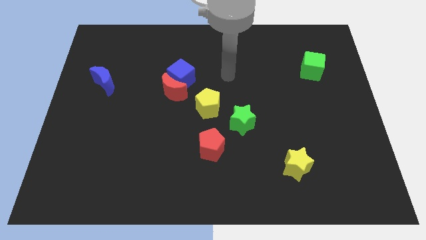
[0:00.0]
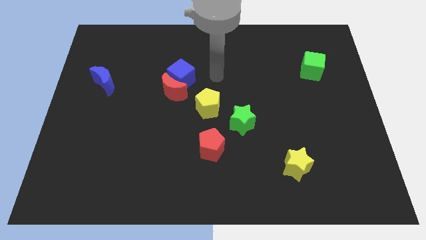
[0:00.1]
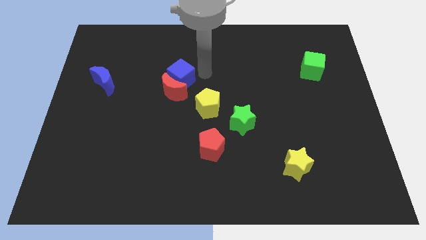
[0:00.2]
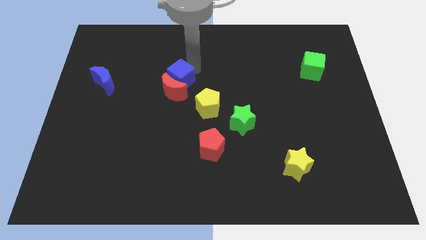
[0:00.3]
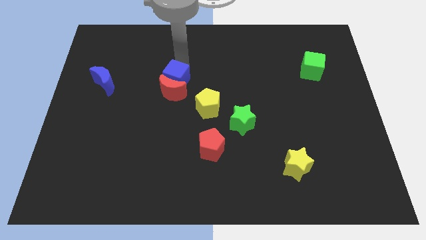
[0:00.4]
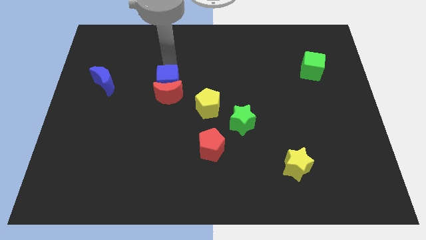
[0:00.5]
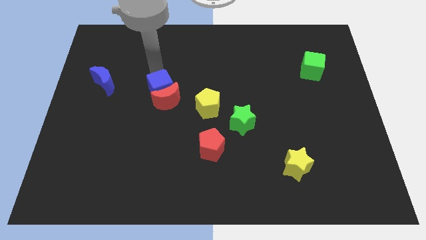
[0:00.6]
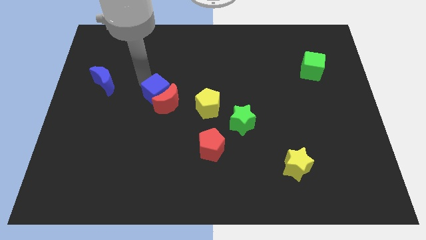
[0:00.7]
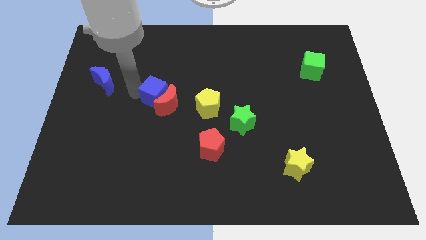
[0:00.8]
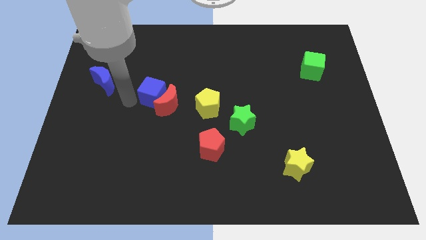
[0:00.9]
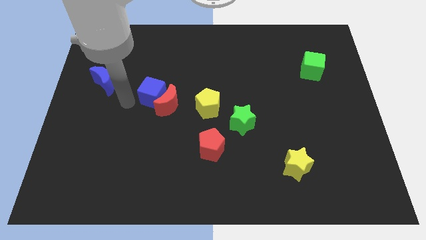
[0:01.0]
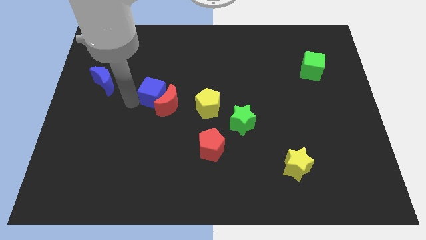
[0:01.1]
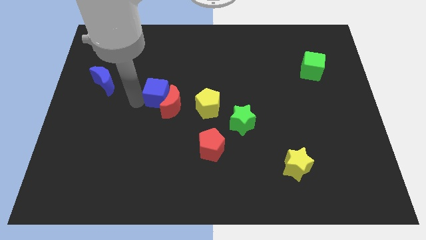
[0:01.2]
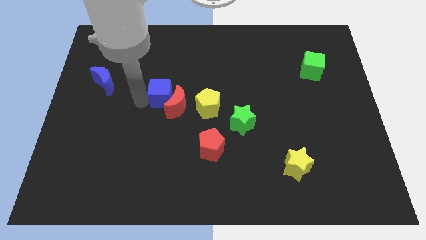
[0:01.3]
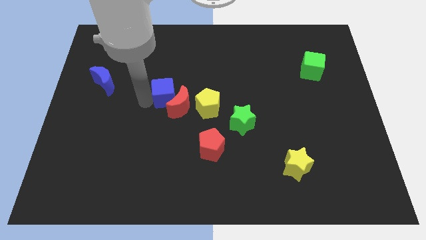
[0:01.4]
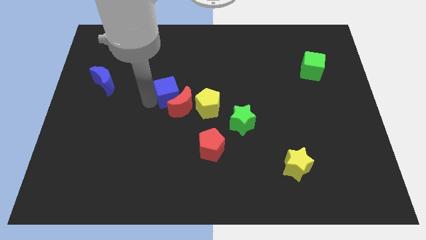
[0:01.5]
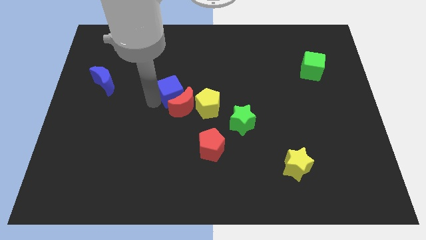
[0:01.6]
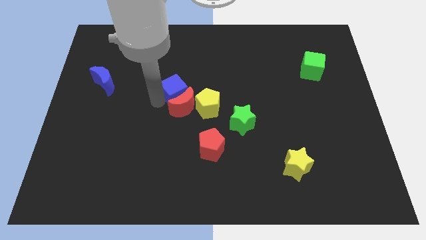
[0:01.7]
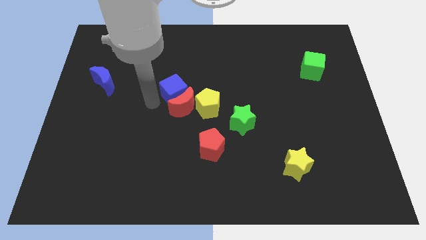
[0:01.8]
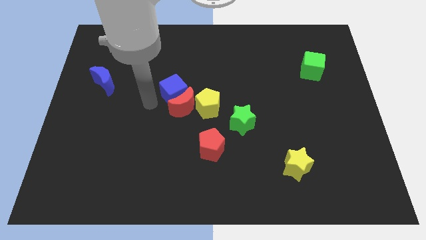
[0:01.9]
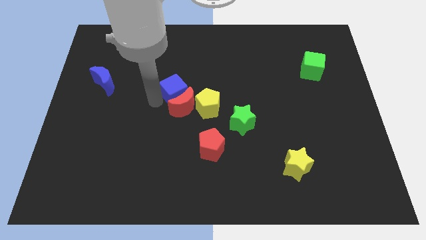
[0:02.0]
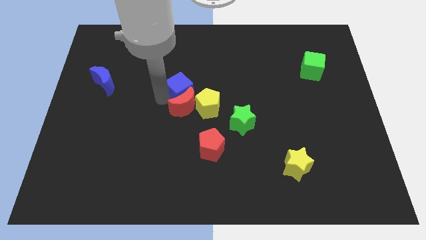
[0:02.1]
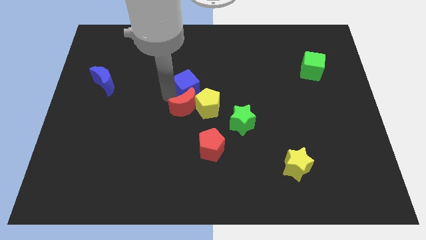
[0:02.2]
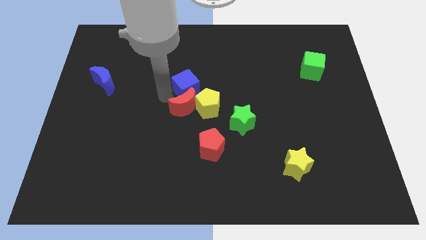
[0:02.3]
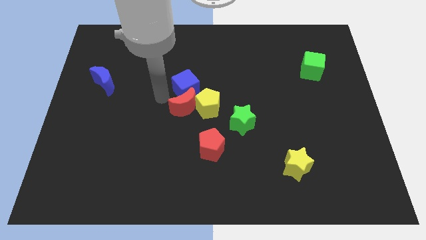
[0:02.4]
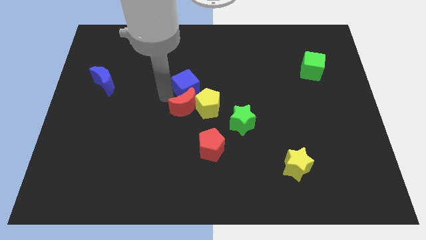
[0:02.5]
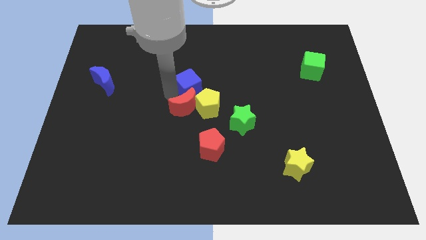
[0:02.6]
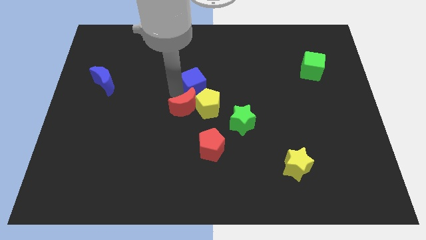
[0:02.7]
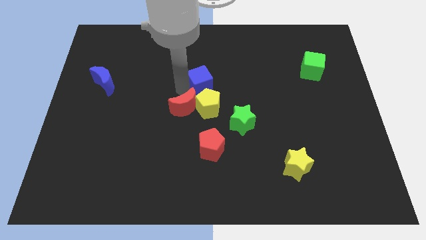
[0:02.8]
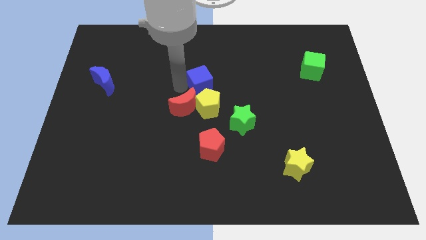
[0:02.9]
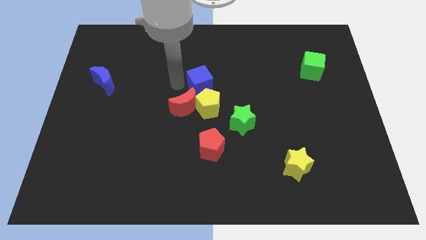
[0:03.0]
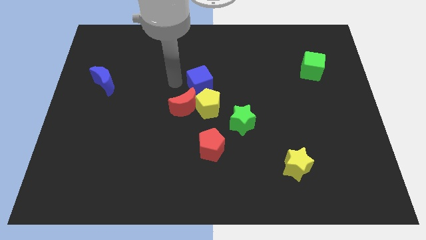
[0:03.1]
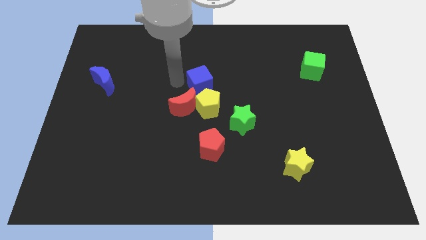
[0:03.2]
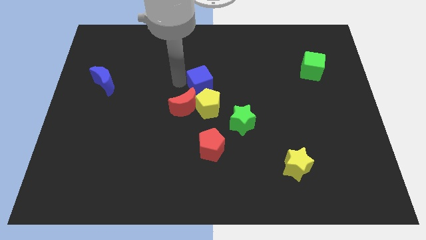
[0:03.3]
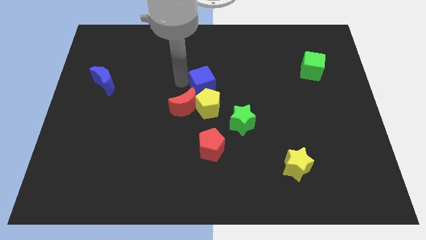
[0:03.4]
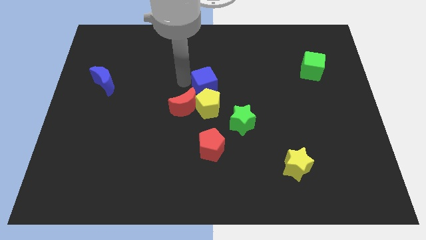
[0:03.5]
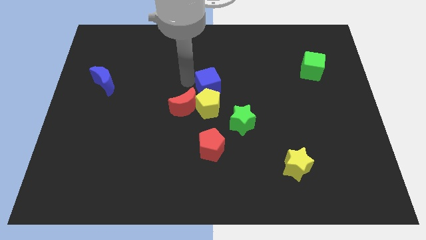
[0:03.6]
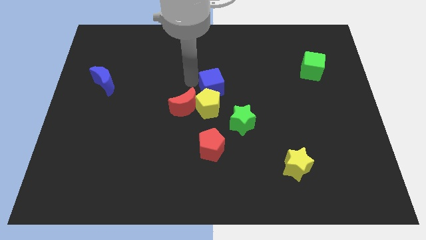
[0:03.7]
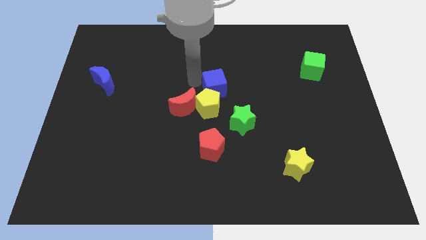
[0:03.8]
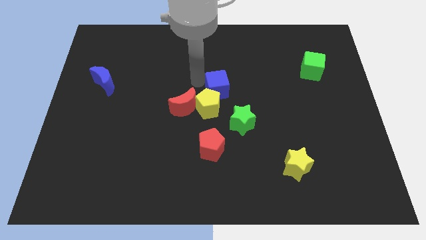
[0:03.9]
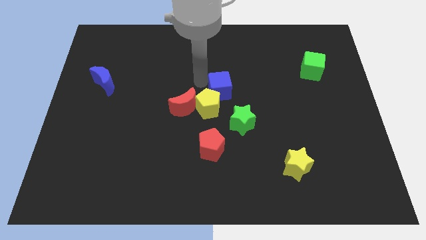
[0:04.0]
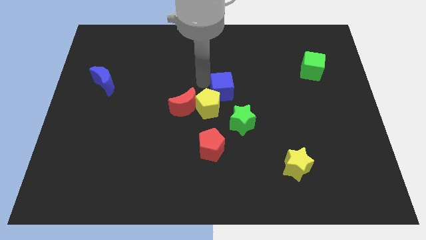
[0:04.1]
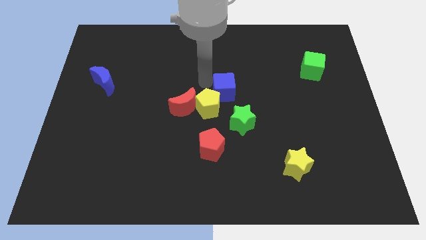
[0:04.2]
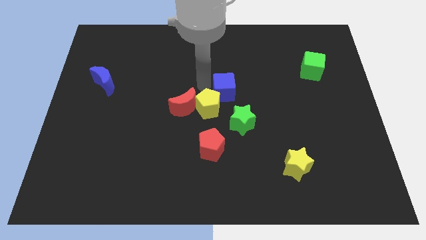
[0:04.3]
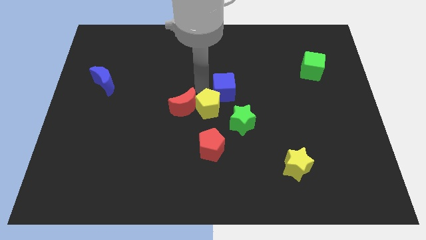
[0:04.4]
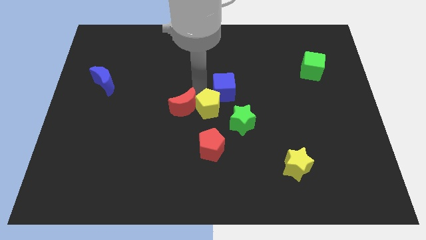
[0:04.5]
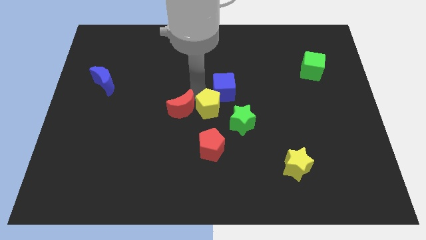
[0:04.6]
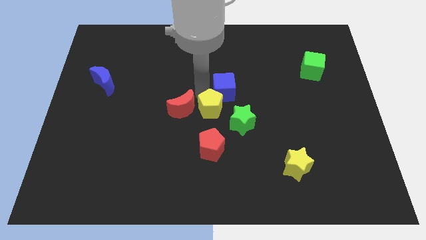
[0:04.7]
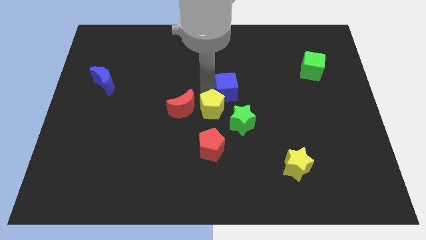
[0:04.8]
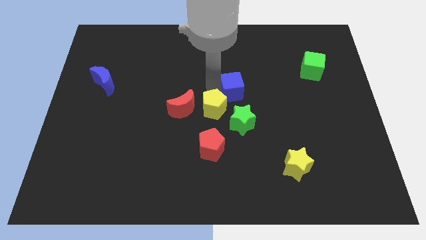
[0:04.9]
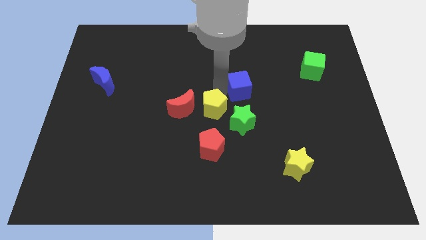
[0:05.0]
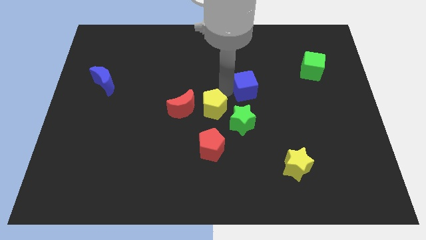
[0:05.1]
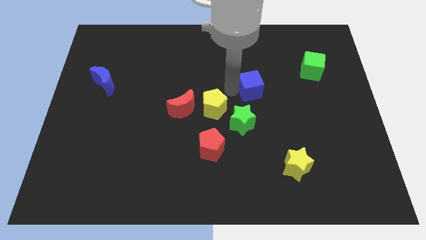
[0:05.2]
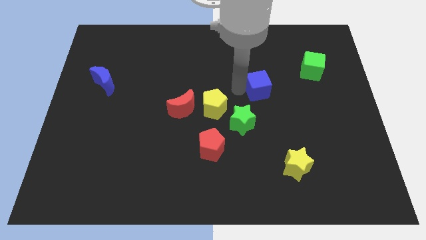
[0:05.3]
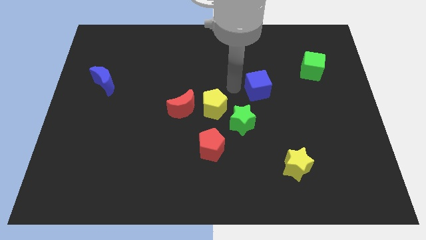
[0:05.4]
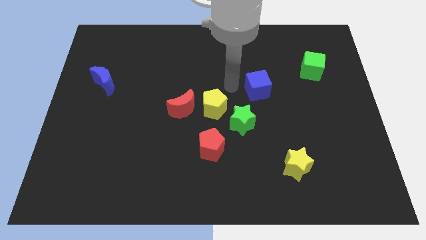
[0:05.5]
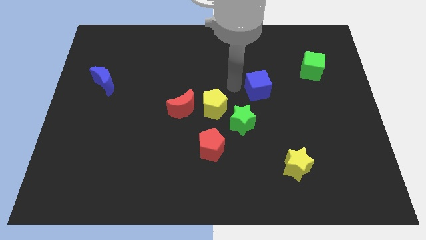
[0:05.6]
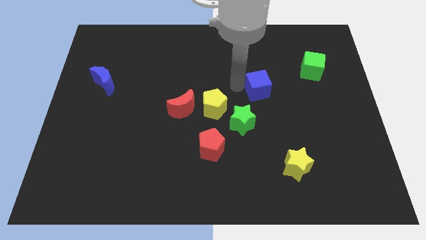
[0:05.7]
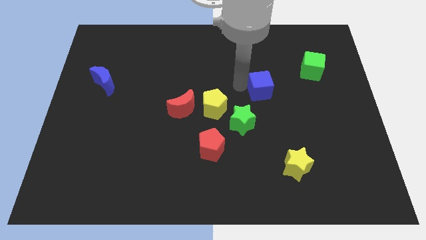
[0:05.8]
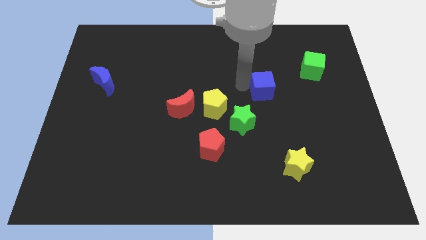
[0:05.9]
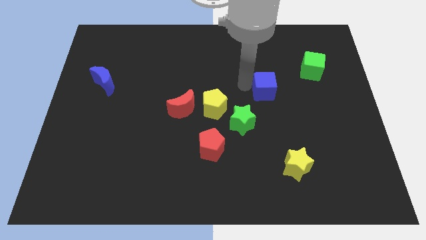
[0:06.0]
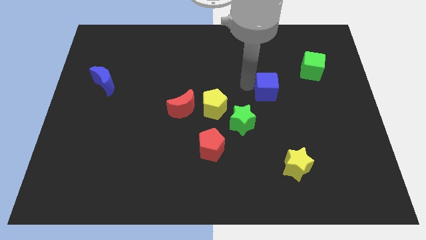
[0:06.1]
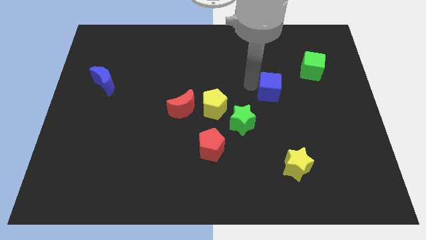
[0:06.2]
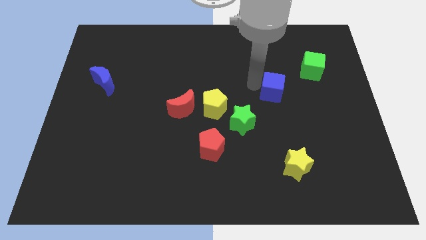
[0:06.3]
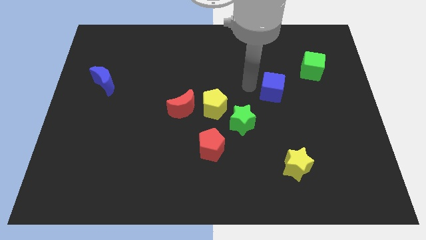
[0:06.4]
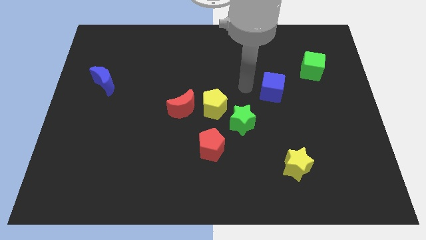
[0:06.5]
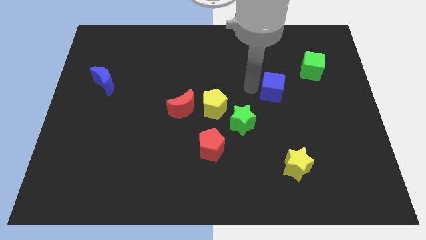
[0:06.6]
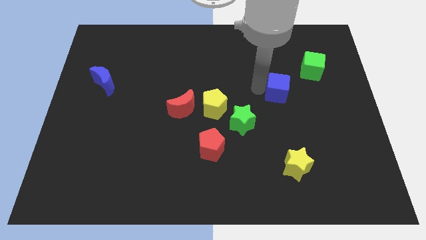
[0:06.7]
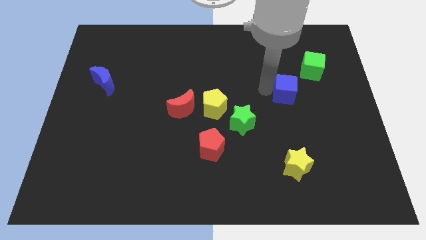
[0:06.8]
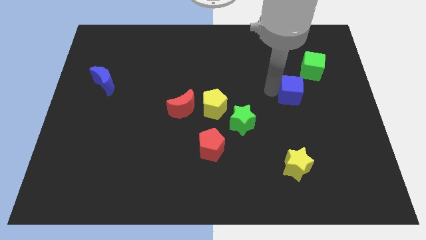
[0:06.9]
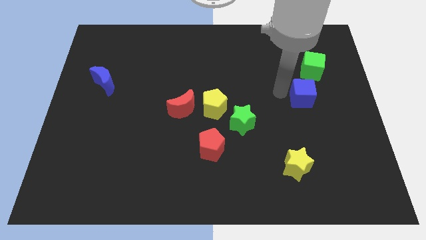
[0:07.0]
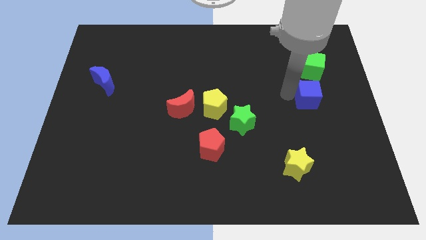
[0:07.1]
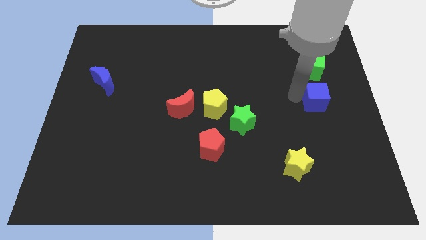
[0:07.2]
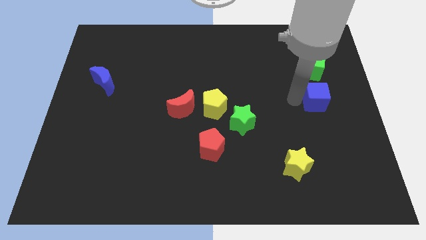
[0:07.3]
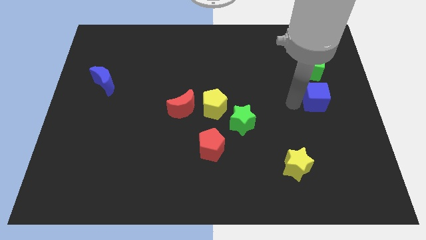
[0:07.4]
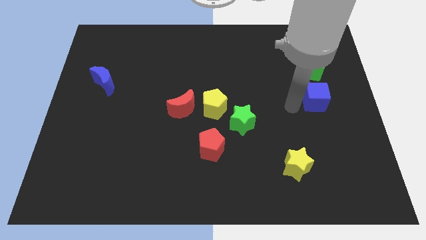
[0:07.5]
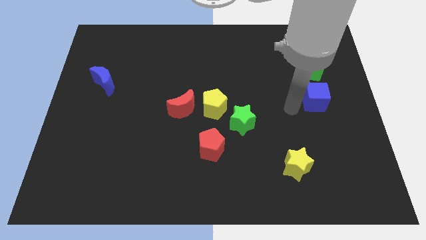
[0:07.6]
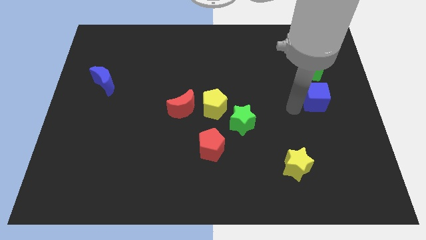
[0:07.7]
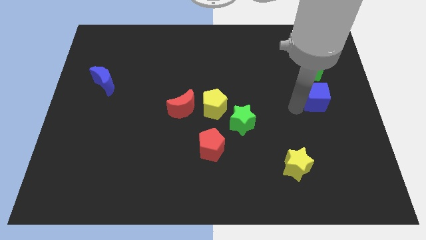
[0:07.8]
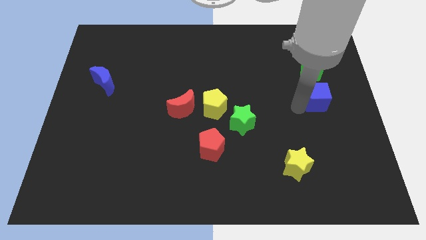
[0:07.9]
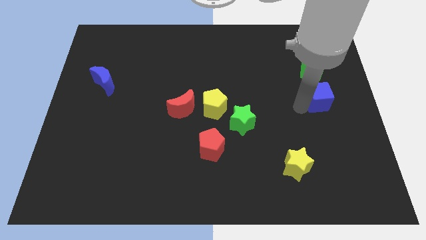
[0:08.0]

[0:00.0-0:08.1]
push the blue cube to the center right
